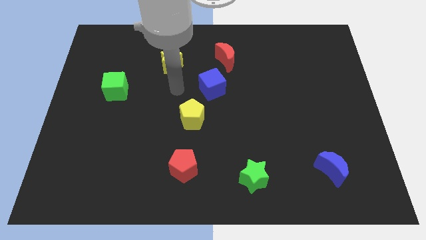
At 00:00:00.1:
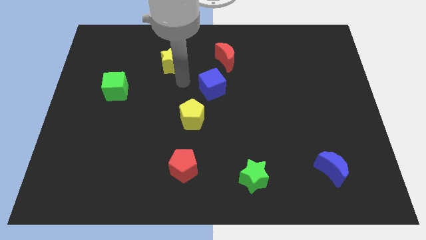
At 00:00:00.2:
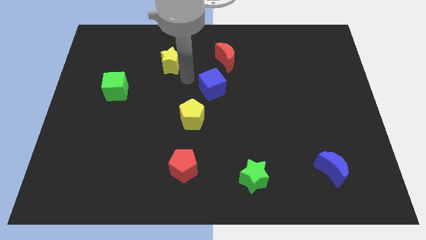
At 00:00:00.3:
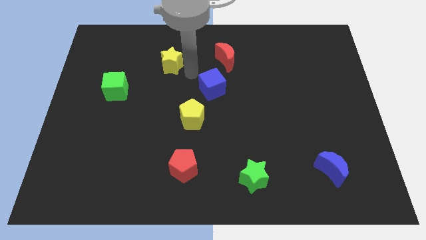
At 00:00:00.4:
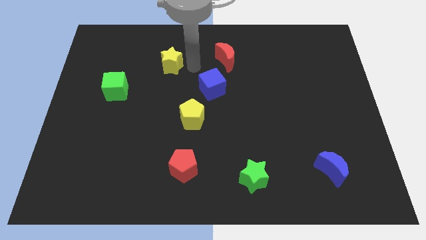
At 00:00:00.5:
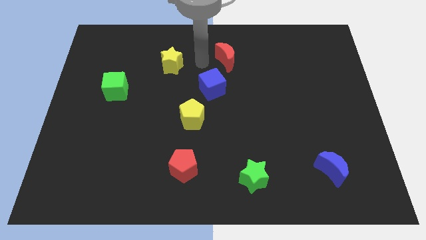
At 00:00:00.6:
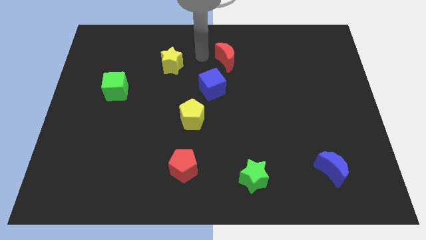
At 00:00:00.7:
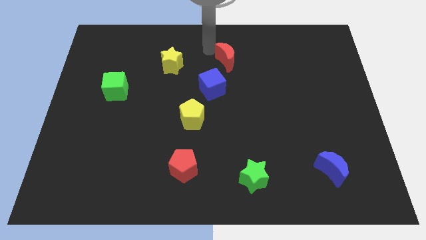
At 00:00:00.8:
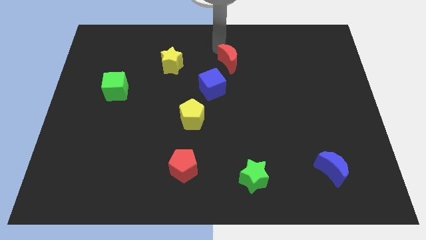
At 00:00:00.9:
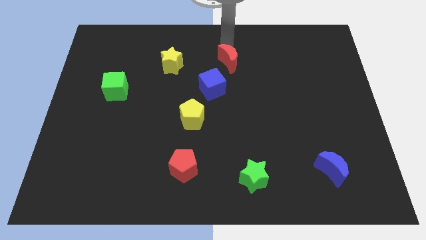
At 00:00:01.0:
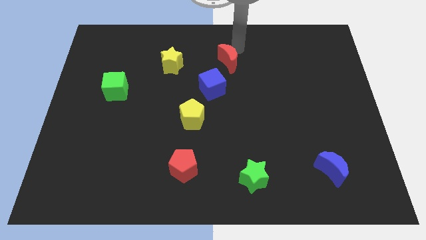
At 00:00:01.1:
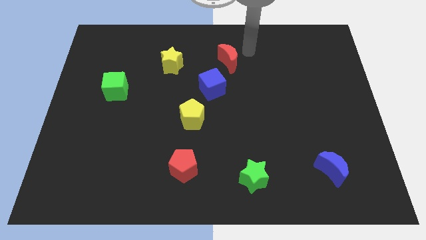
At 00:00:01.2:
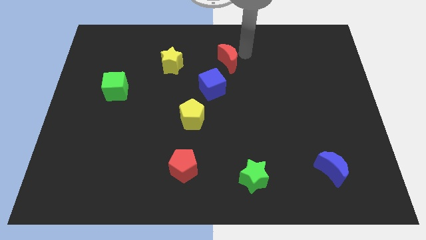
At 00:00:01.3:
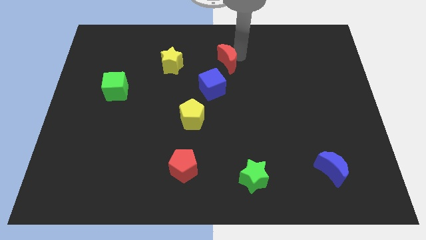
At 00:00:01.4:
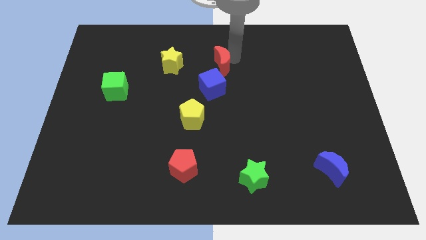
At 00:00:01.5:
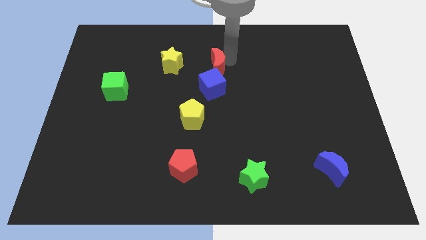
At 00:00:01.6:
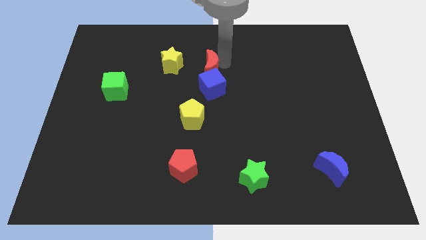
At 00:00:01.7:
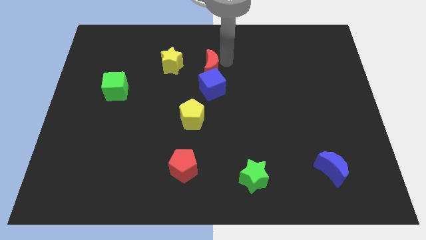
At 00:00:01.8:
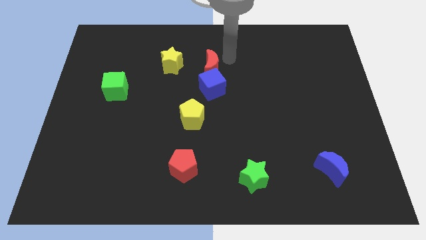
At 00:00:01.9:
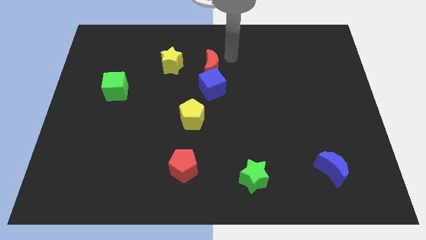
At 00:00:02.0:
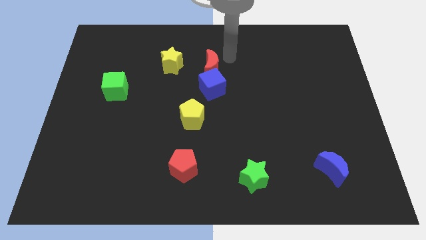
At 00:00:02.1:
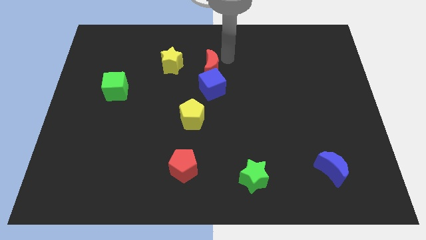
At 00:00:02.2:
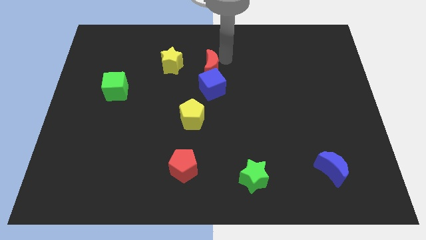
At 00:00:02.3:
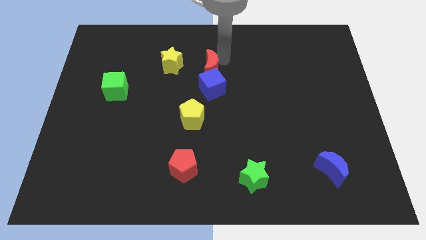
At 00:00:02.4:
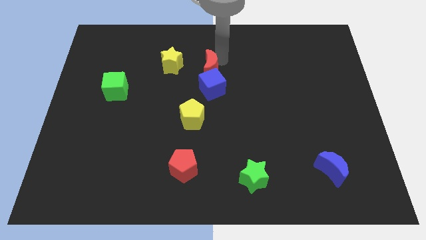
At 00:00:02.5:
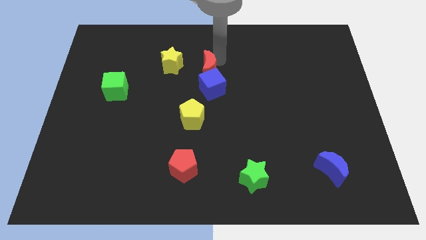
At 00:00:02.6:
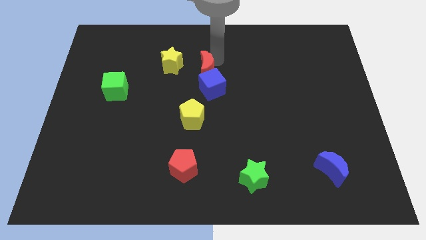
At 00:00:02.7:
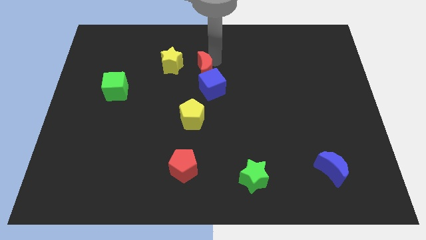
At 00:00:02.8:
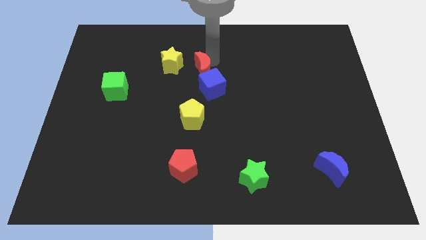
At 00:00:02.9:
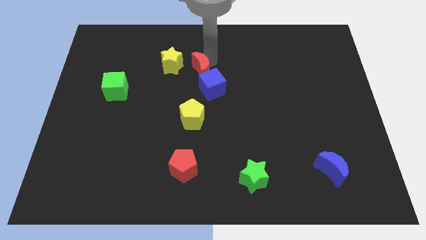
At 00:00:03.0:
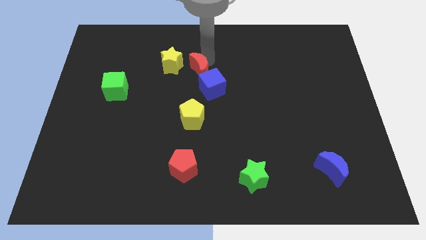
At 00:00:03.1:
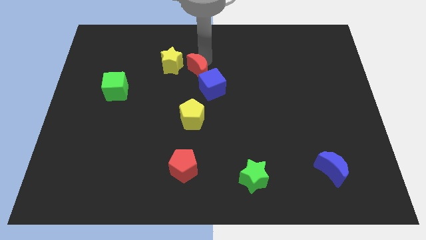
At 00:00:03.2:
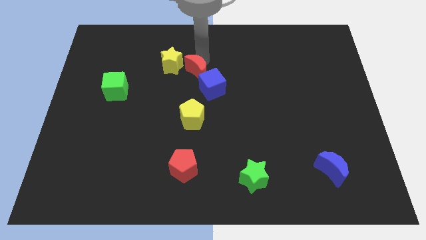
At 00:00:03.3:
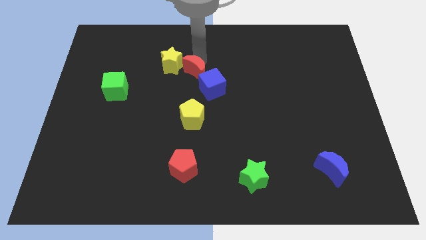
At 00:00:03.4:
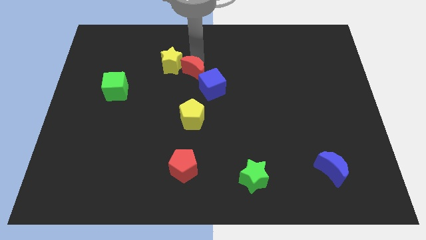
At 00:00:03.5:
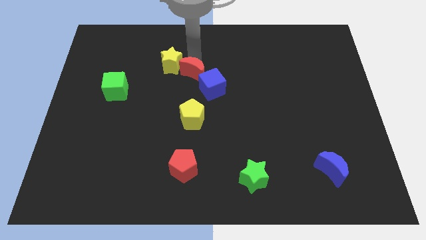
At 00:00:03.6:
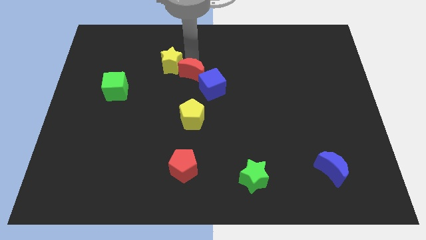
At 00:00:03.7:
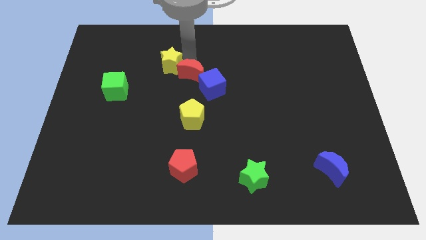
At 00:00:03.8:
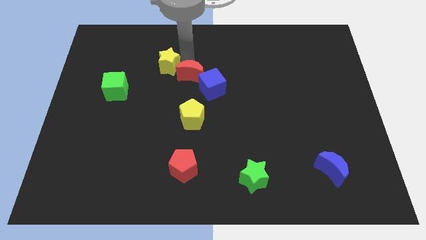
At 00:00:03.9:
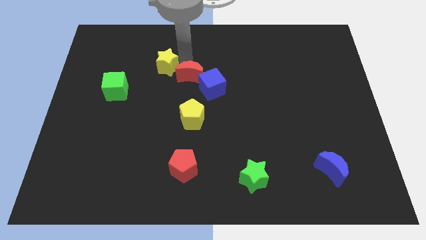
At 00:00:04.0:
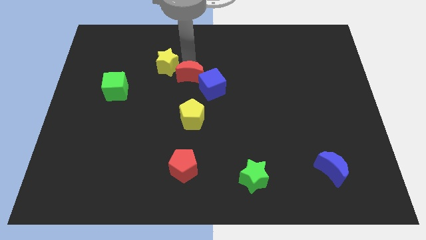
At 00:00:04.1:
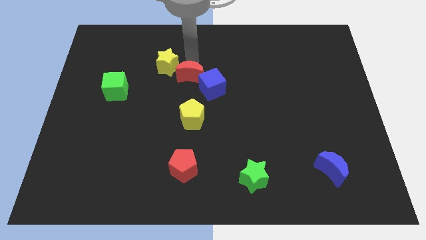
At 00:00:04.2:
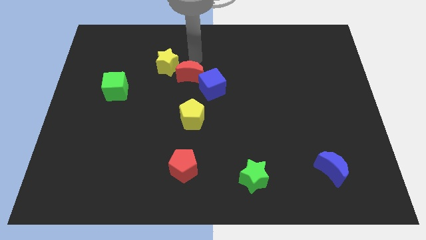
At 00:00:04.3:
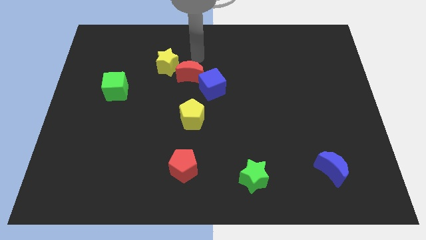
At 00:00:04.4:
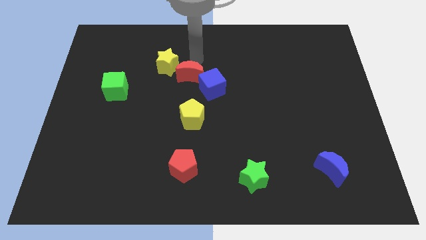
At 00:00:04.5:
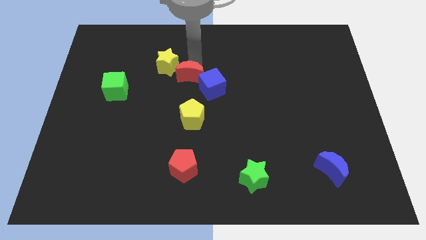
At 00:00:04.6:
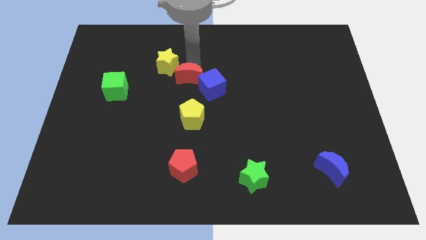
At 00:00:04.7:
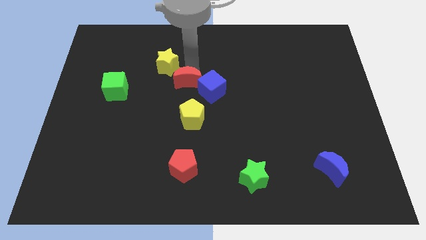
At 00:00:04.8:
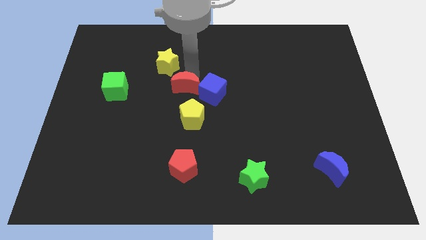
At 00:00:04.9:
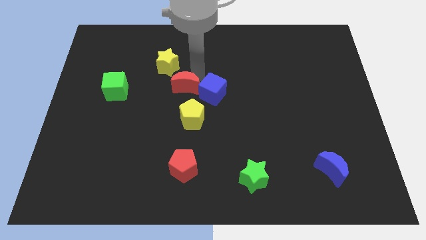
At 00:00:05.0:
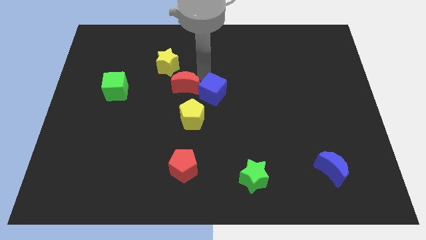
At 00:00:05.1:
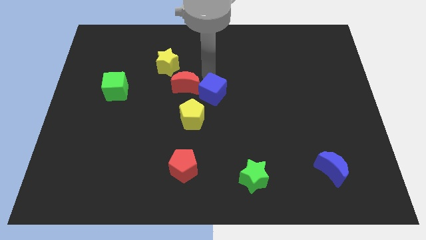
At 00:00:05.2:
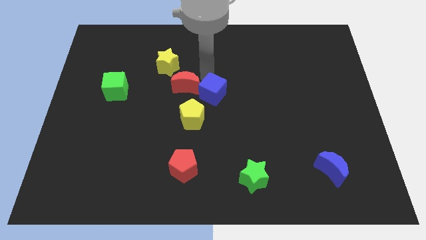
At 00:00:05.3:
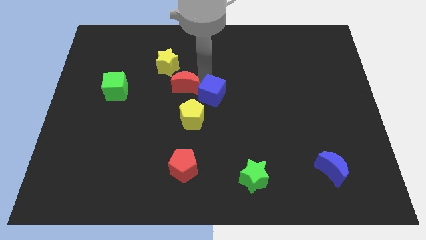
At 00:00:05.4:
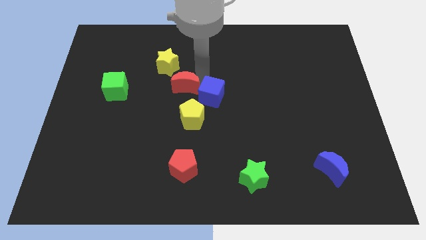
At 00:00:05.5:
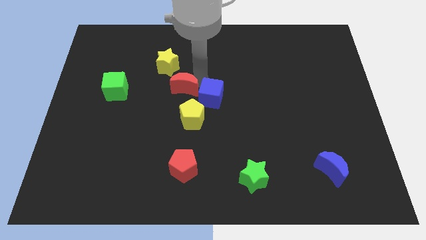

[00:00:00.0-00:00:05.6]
move the red moon below the yellow star

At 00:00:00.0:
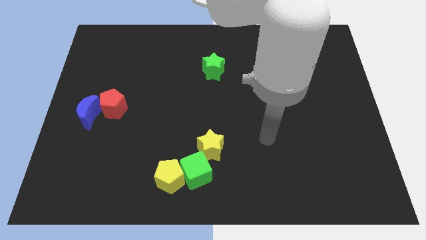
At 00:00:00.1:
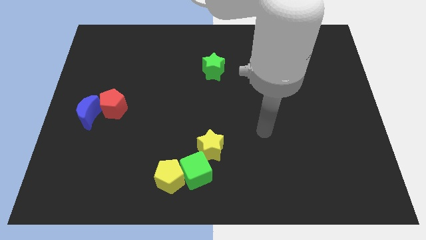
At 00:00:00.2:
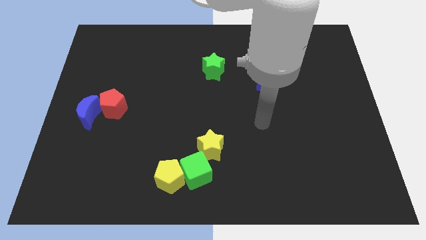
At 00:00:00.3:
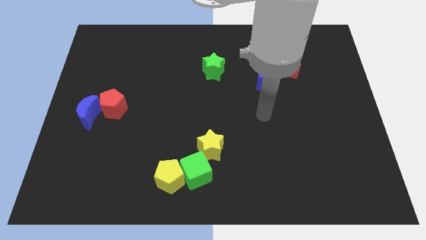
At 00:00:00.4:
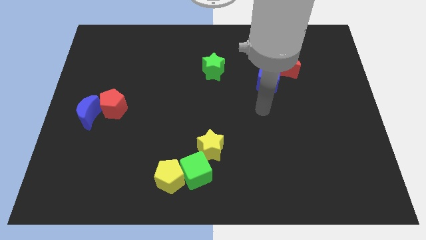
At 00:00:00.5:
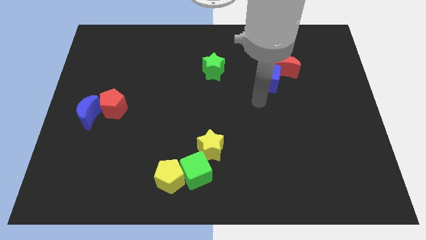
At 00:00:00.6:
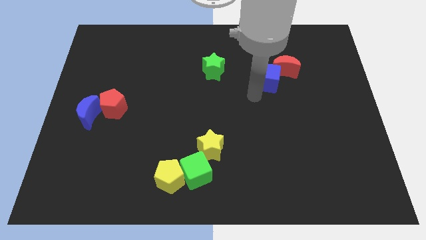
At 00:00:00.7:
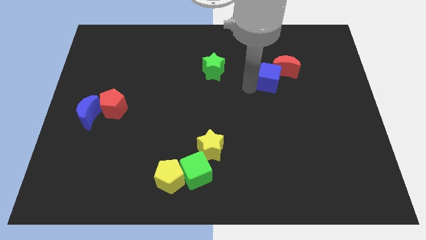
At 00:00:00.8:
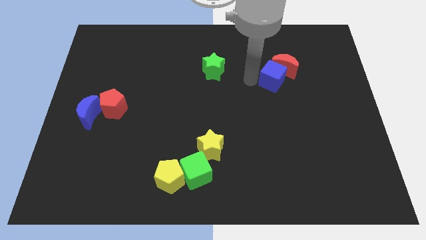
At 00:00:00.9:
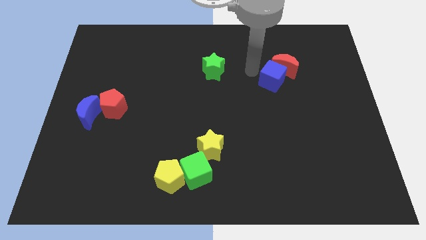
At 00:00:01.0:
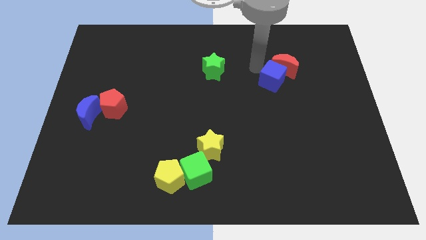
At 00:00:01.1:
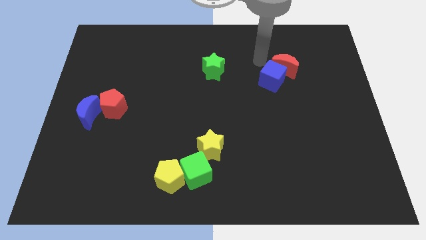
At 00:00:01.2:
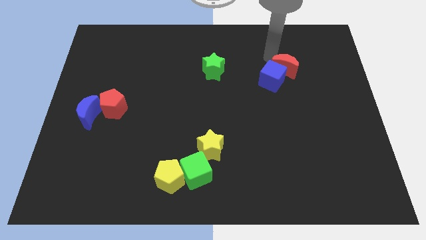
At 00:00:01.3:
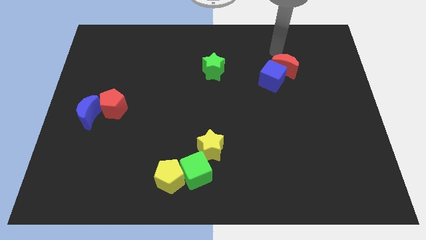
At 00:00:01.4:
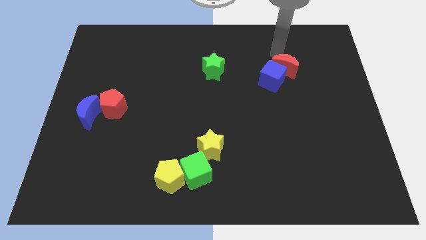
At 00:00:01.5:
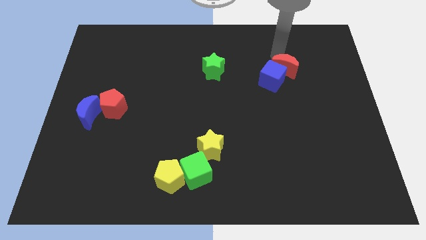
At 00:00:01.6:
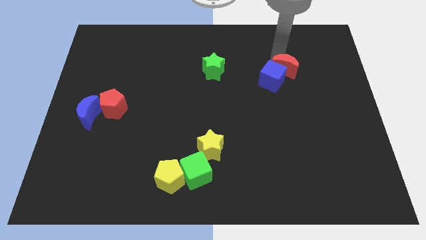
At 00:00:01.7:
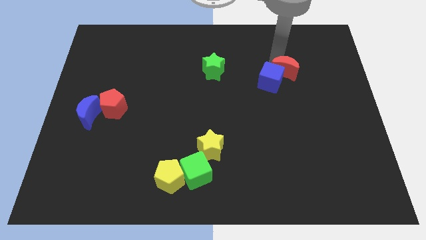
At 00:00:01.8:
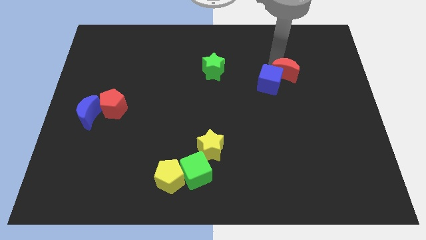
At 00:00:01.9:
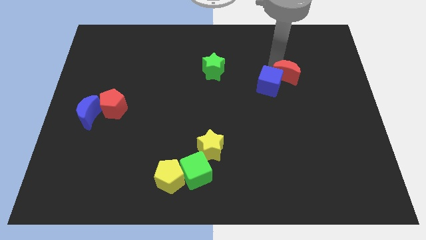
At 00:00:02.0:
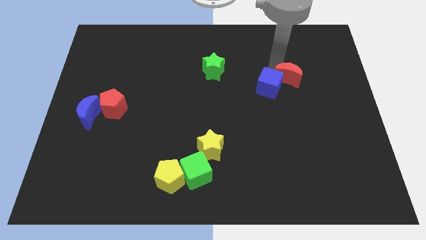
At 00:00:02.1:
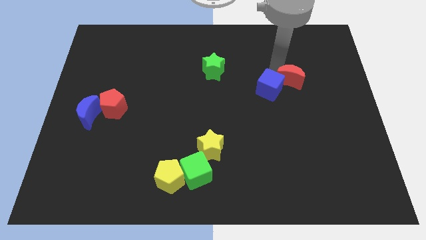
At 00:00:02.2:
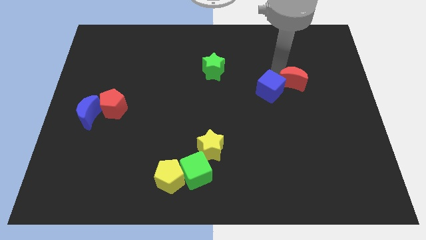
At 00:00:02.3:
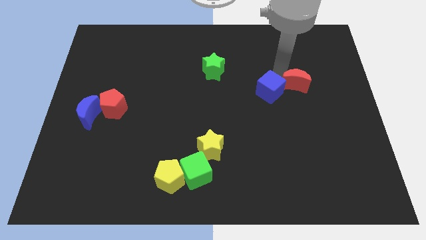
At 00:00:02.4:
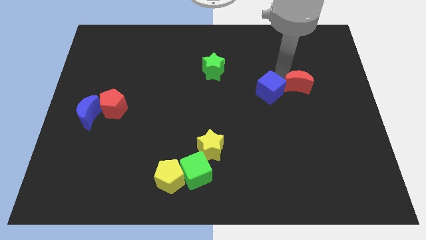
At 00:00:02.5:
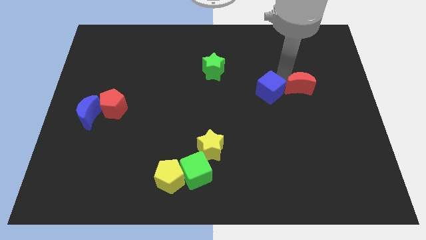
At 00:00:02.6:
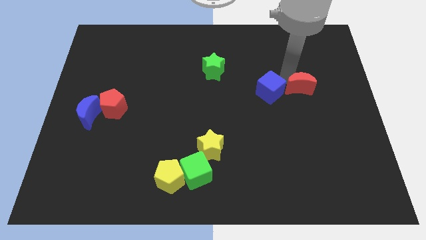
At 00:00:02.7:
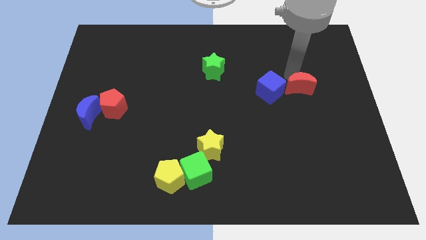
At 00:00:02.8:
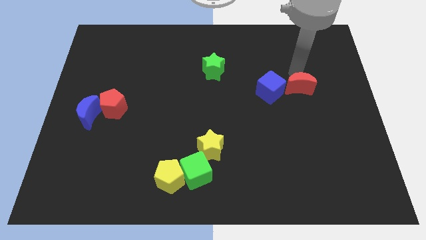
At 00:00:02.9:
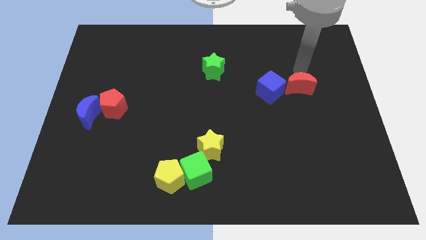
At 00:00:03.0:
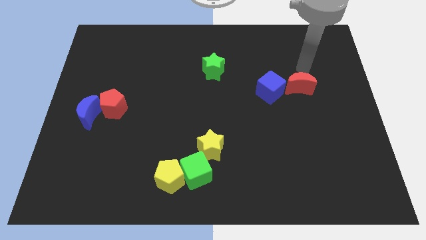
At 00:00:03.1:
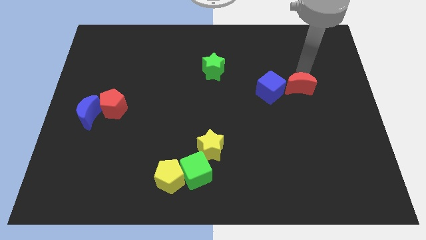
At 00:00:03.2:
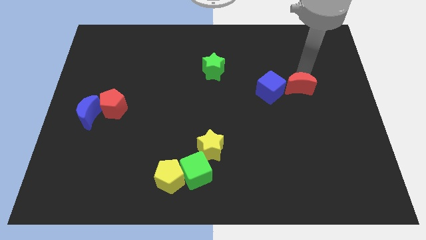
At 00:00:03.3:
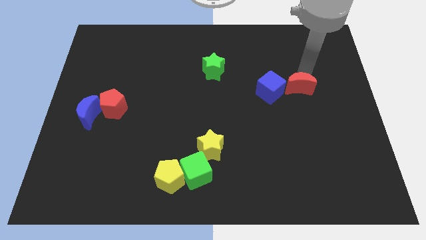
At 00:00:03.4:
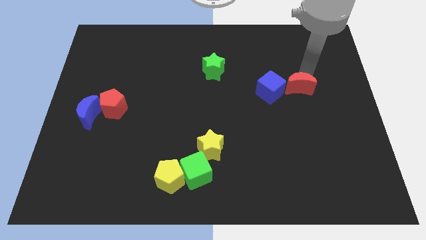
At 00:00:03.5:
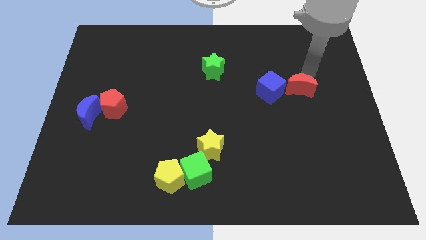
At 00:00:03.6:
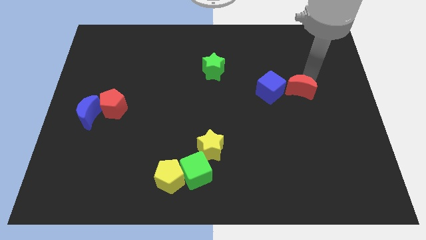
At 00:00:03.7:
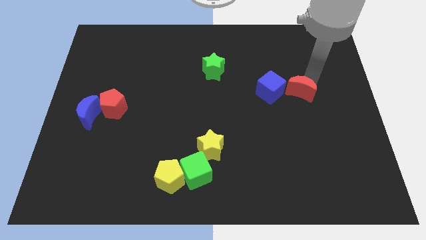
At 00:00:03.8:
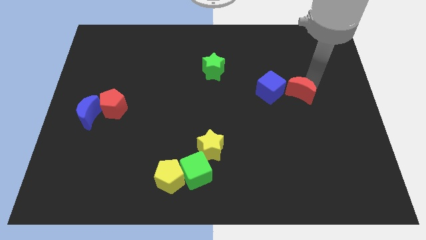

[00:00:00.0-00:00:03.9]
put the red moon diagonally down and to the right of the blue cube
